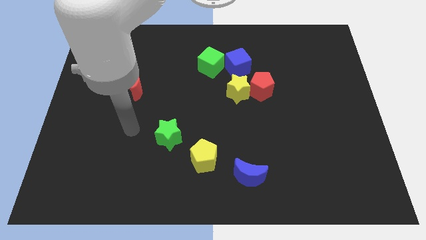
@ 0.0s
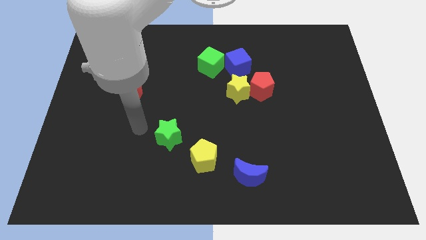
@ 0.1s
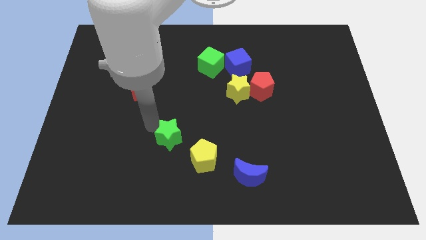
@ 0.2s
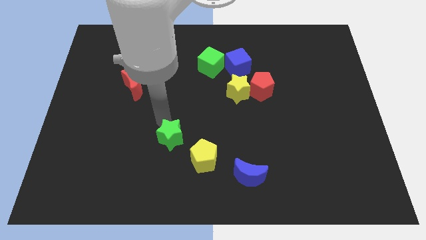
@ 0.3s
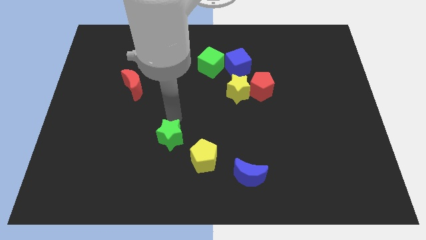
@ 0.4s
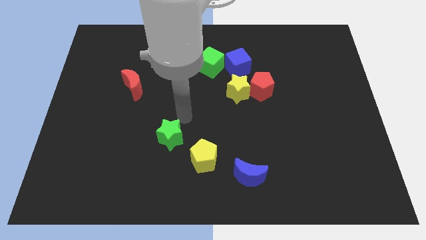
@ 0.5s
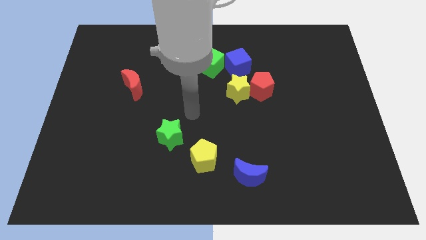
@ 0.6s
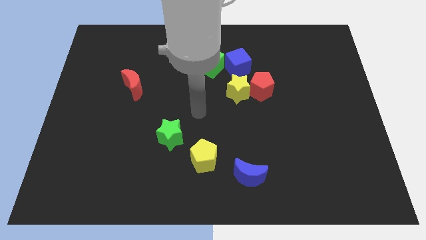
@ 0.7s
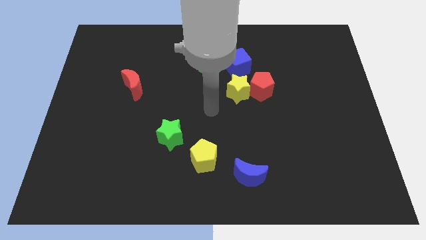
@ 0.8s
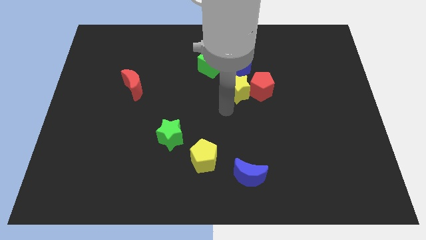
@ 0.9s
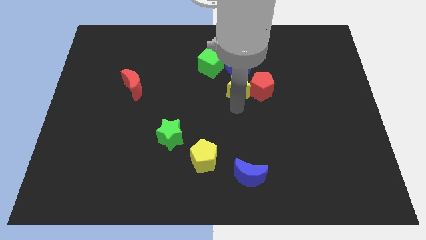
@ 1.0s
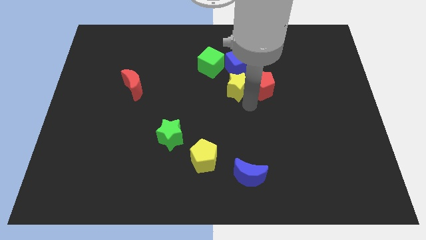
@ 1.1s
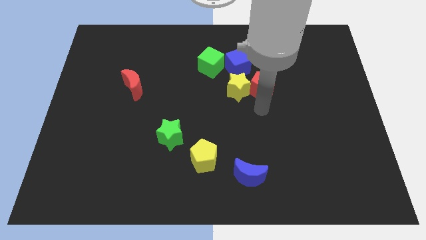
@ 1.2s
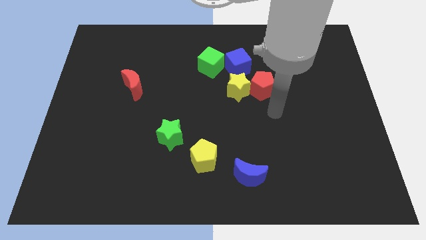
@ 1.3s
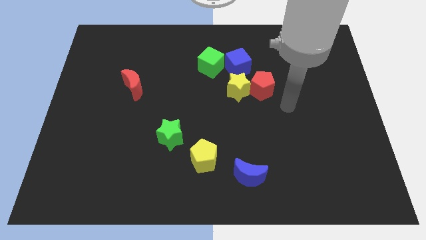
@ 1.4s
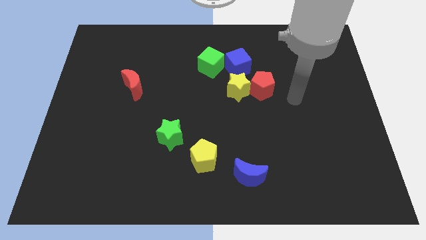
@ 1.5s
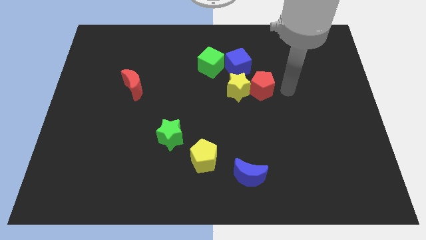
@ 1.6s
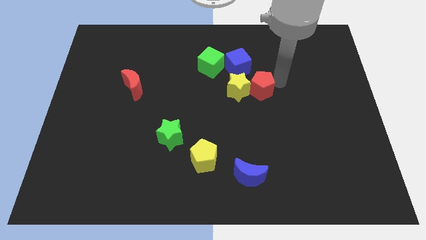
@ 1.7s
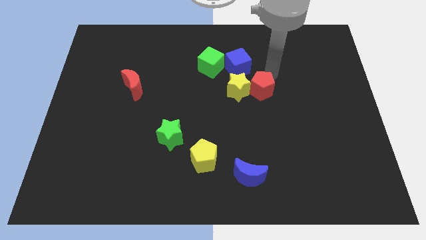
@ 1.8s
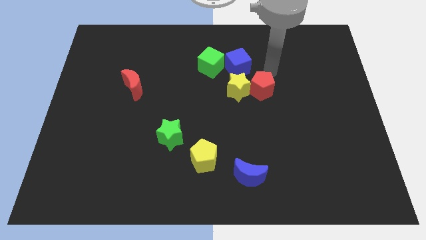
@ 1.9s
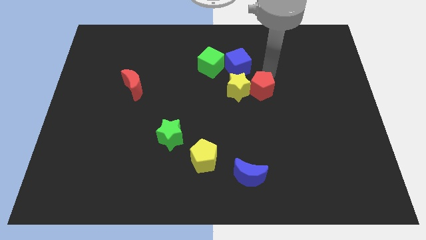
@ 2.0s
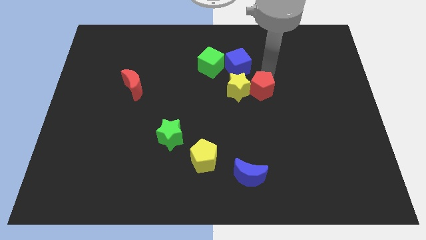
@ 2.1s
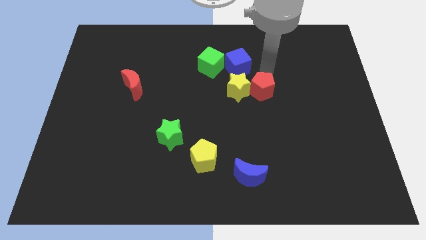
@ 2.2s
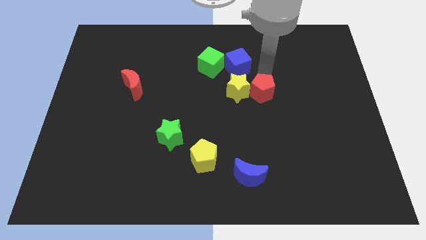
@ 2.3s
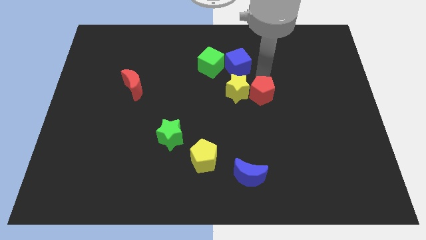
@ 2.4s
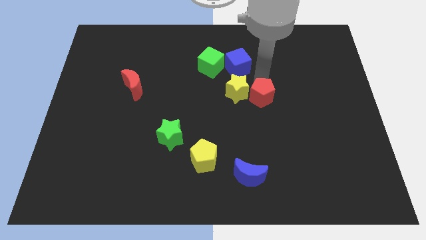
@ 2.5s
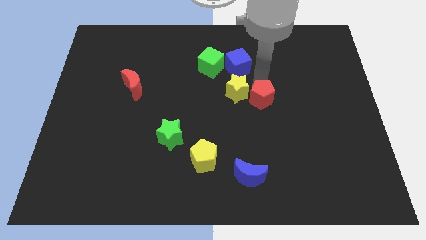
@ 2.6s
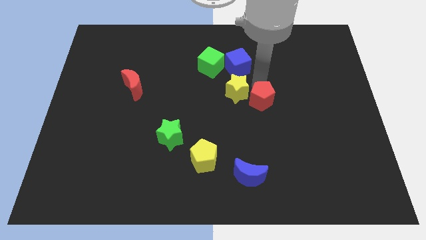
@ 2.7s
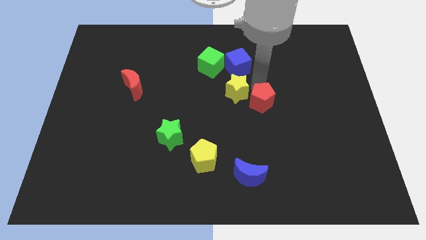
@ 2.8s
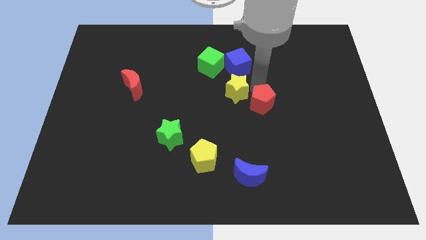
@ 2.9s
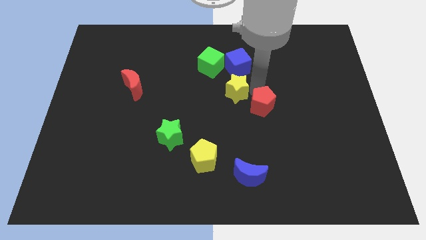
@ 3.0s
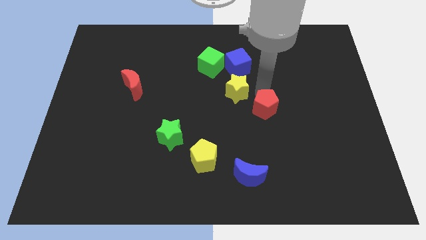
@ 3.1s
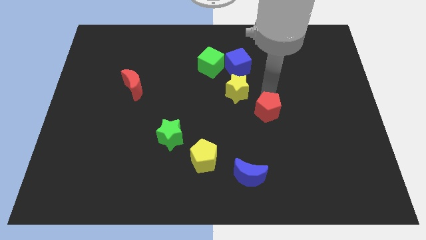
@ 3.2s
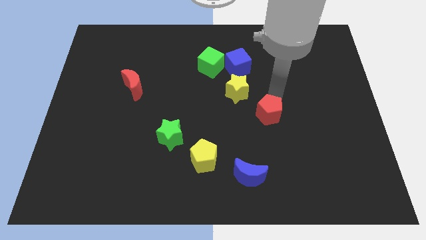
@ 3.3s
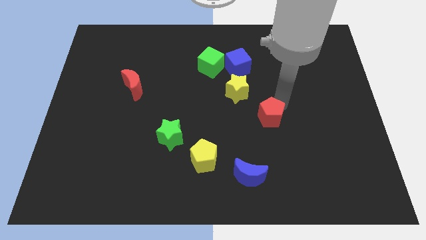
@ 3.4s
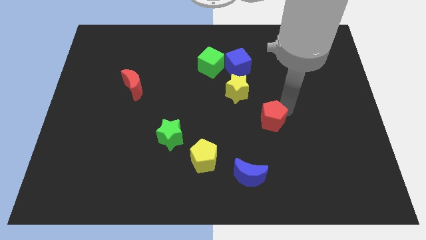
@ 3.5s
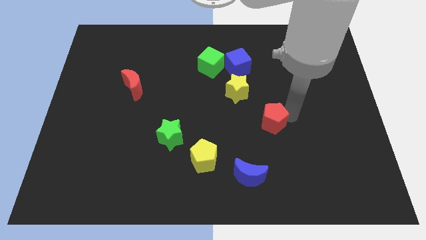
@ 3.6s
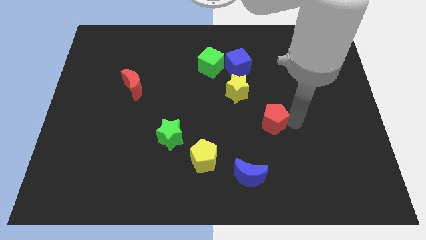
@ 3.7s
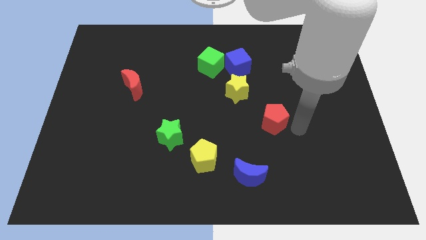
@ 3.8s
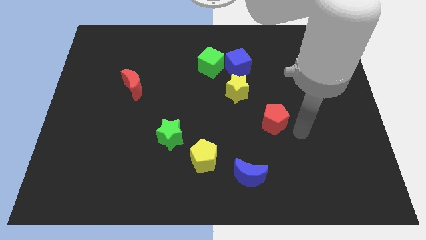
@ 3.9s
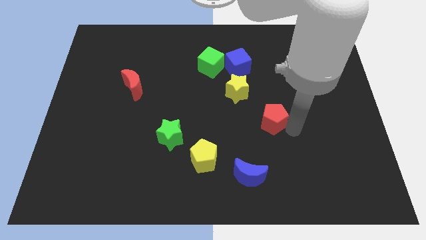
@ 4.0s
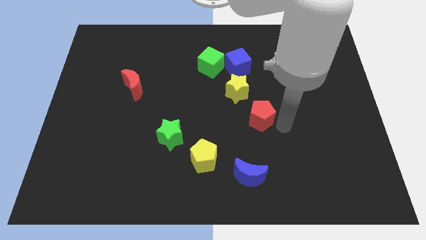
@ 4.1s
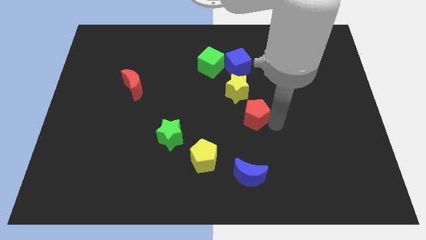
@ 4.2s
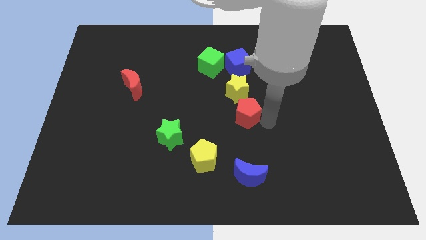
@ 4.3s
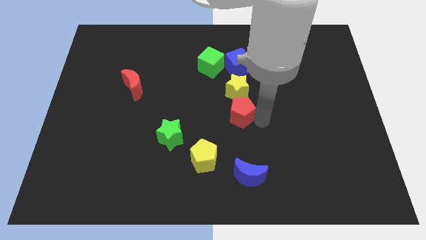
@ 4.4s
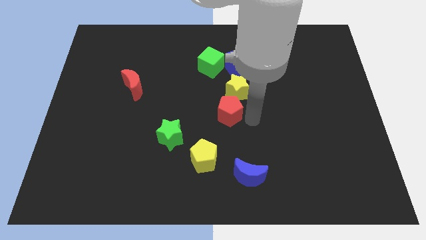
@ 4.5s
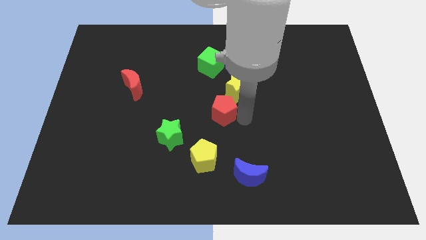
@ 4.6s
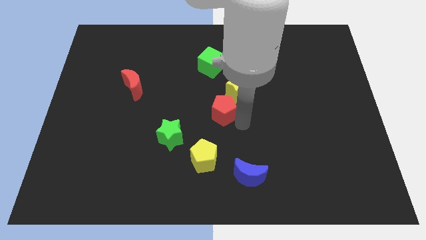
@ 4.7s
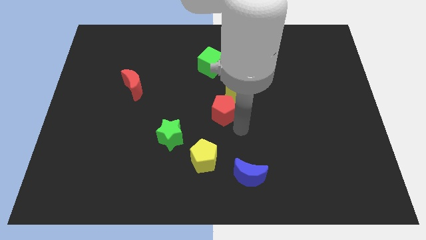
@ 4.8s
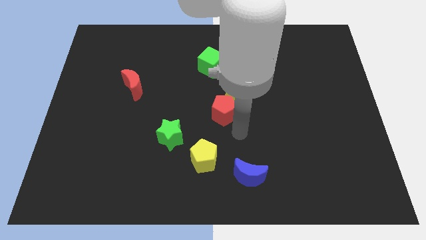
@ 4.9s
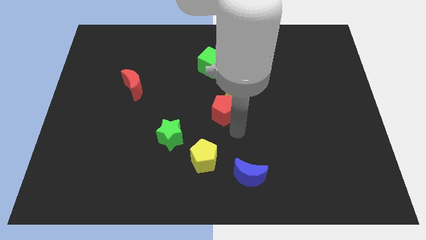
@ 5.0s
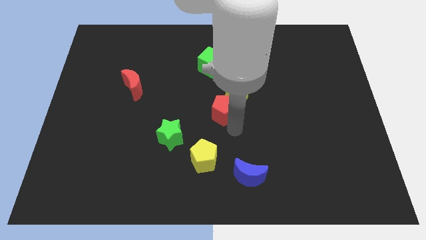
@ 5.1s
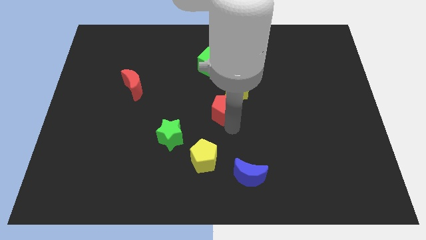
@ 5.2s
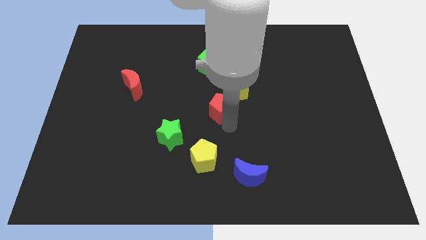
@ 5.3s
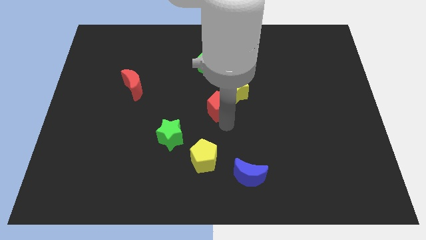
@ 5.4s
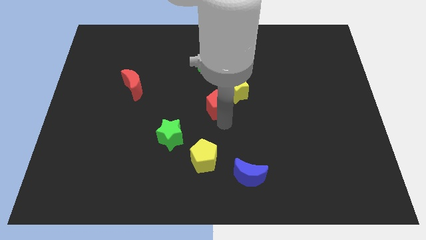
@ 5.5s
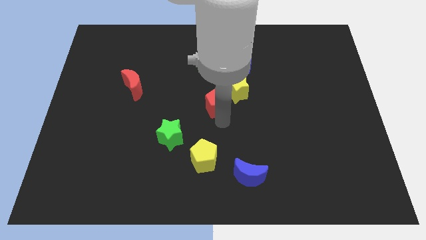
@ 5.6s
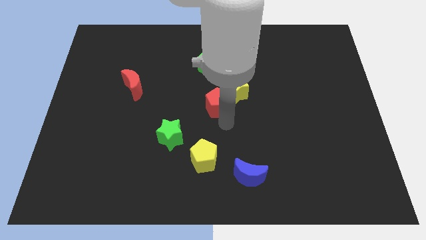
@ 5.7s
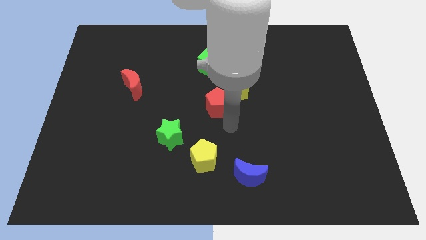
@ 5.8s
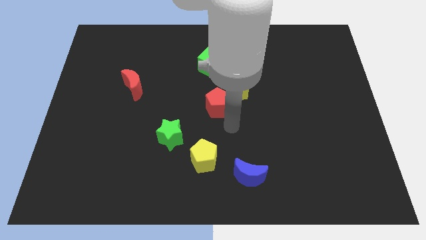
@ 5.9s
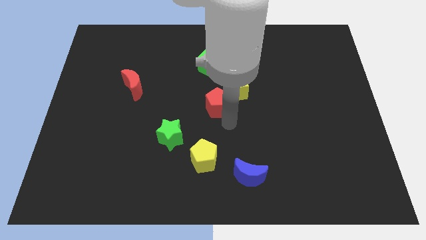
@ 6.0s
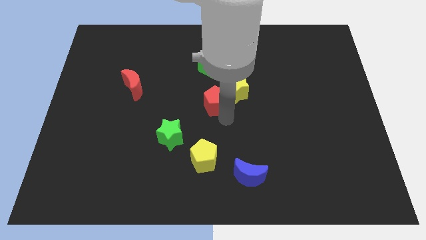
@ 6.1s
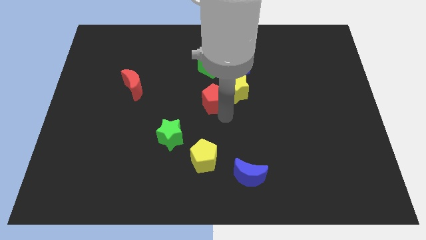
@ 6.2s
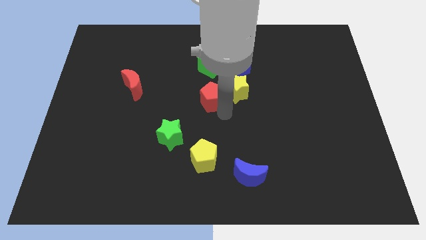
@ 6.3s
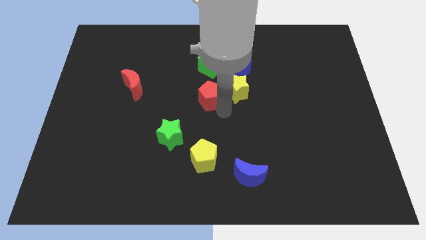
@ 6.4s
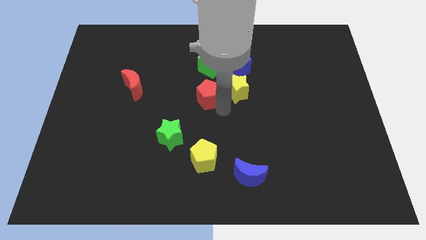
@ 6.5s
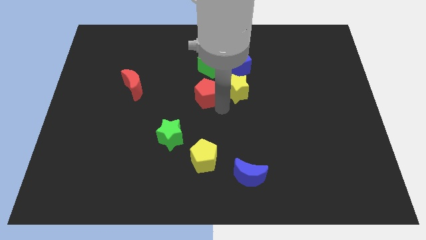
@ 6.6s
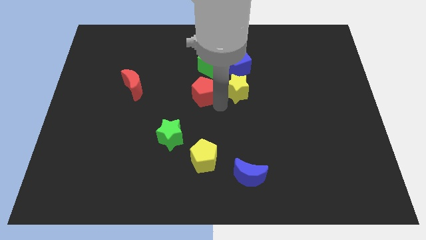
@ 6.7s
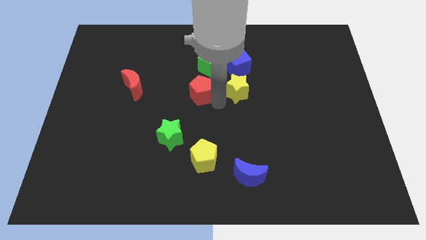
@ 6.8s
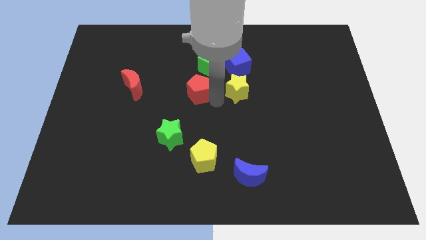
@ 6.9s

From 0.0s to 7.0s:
move the red pentagon to the right of the red moon
